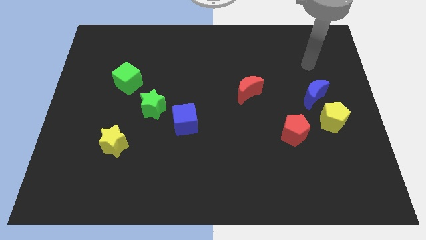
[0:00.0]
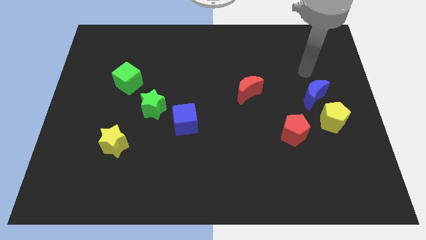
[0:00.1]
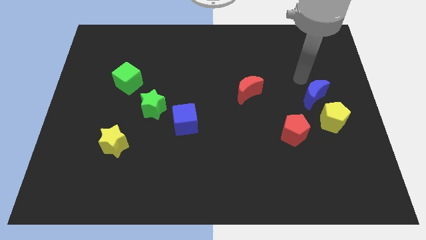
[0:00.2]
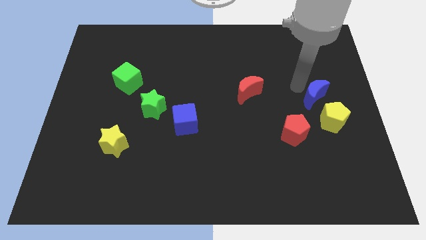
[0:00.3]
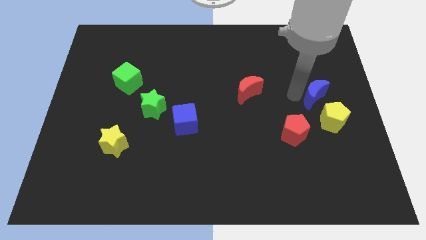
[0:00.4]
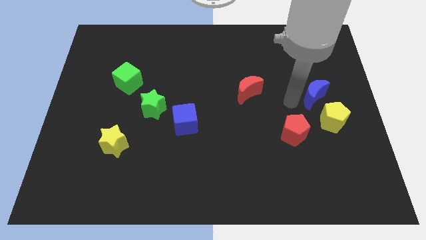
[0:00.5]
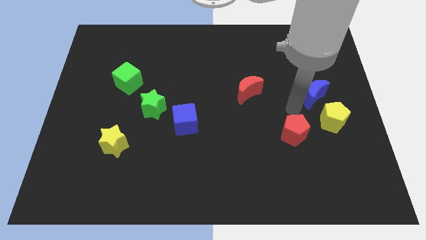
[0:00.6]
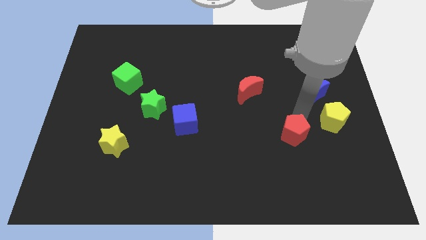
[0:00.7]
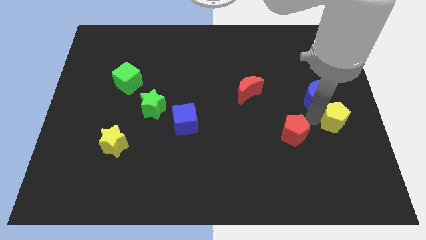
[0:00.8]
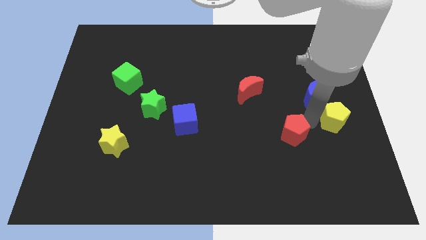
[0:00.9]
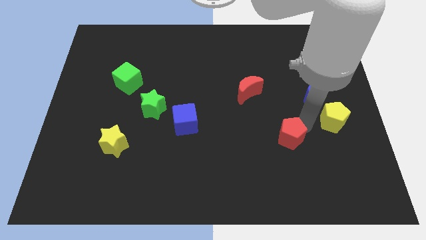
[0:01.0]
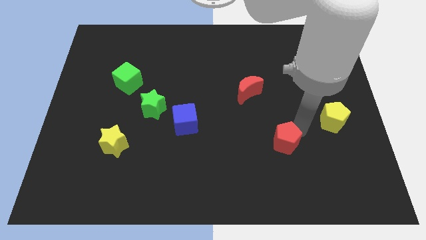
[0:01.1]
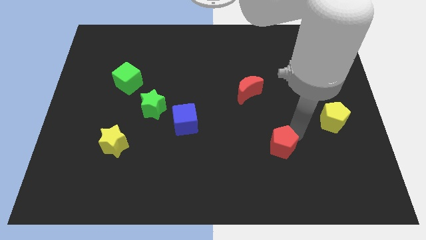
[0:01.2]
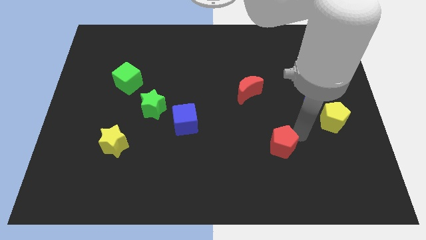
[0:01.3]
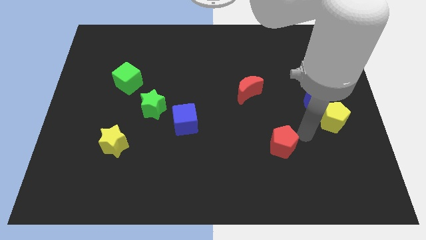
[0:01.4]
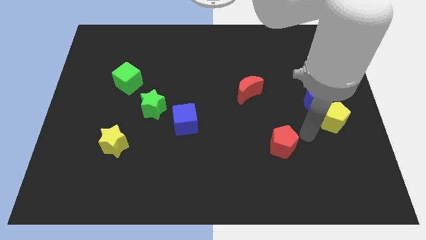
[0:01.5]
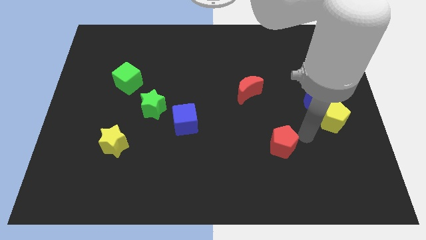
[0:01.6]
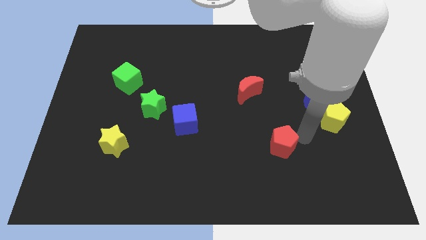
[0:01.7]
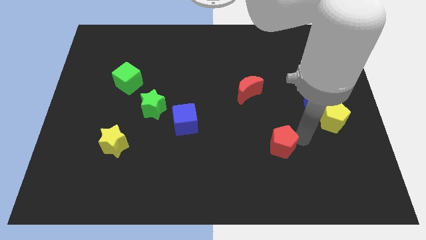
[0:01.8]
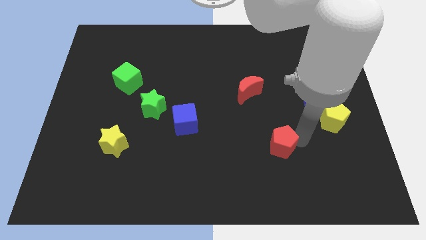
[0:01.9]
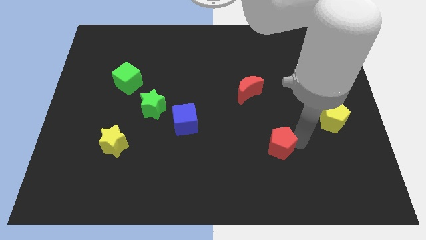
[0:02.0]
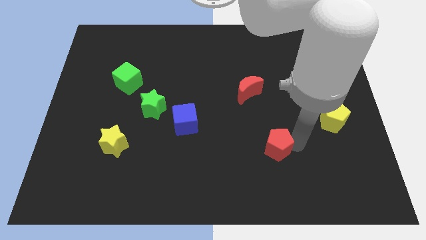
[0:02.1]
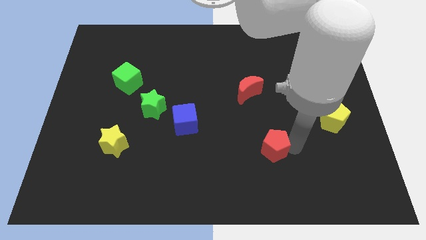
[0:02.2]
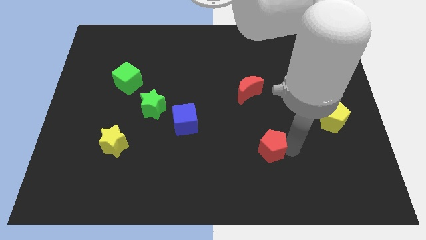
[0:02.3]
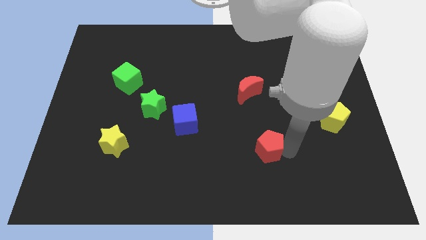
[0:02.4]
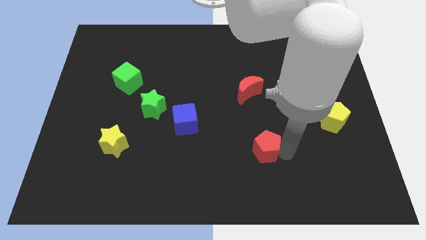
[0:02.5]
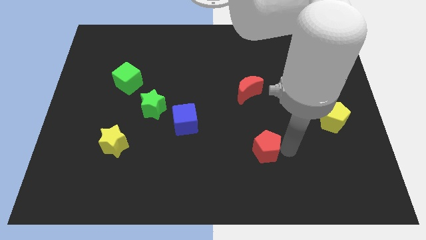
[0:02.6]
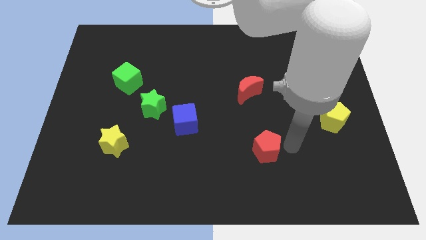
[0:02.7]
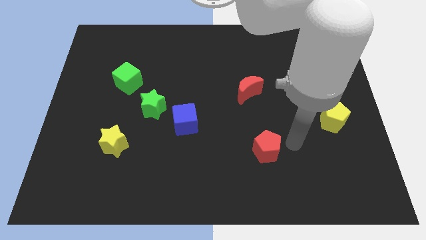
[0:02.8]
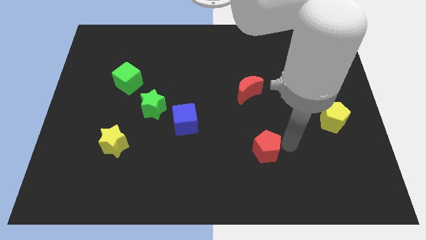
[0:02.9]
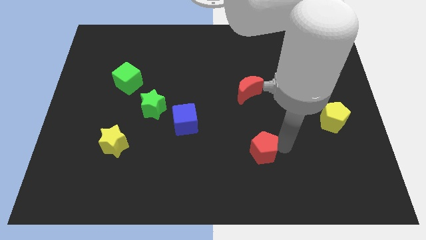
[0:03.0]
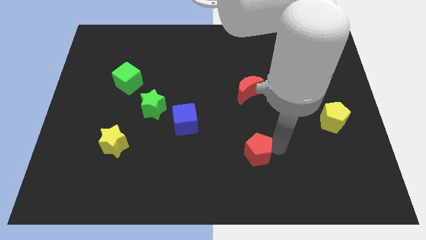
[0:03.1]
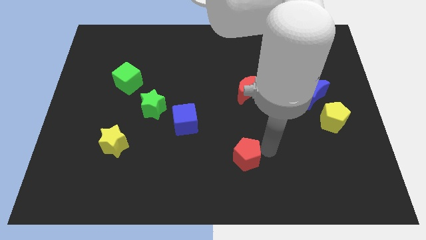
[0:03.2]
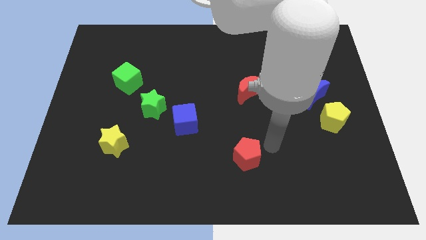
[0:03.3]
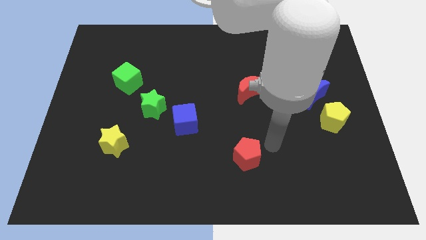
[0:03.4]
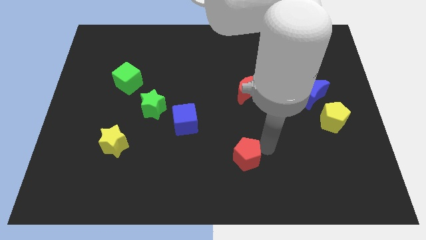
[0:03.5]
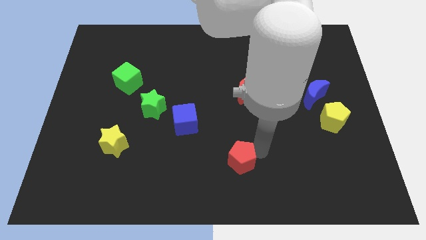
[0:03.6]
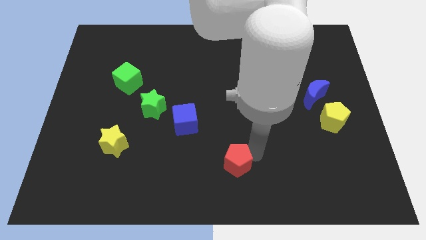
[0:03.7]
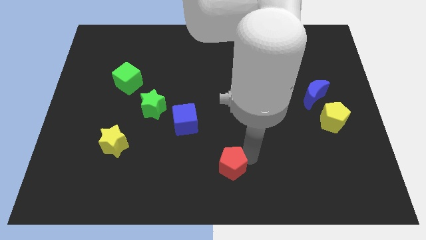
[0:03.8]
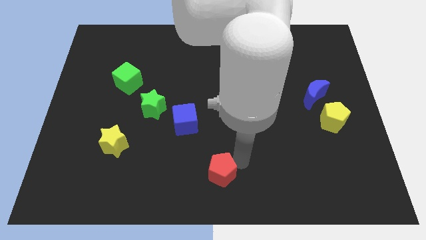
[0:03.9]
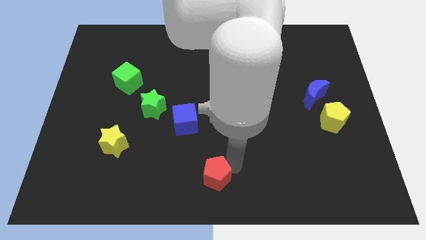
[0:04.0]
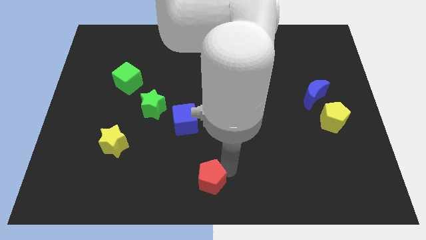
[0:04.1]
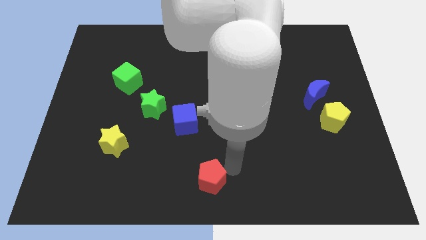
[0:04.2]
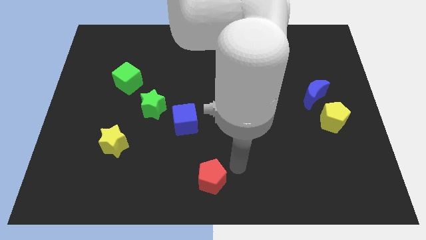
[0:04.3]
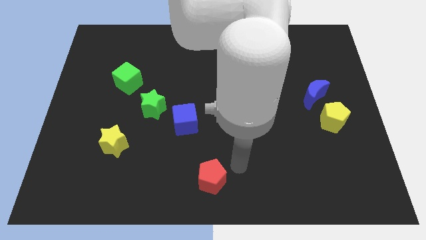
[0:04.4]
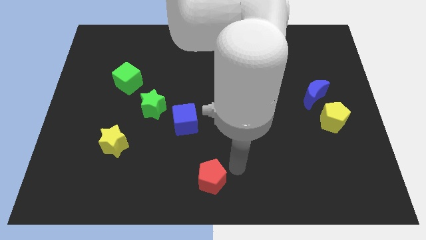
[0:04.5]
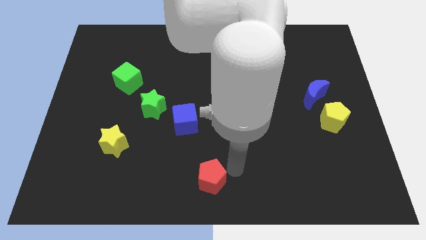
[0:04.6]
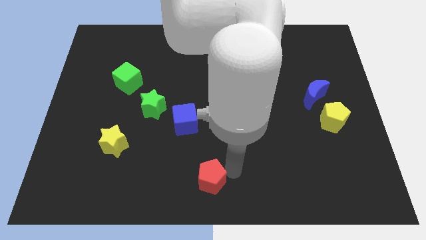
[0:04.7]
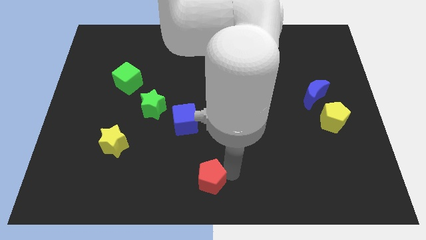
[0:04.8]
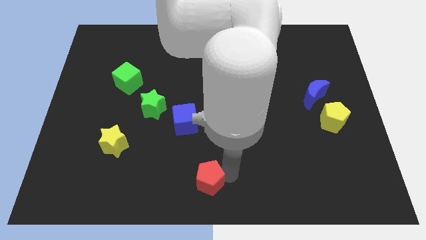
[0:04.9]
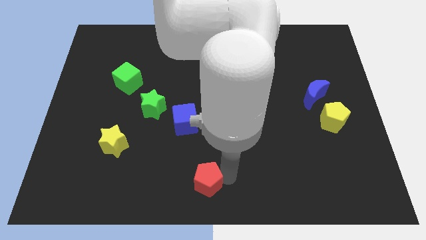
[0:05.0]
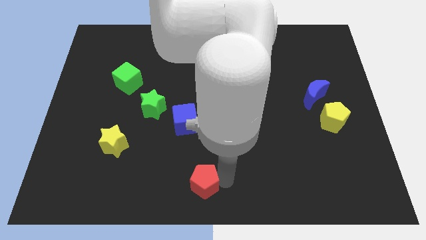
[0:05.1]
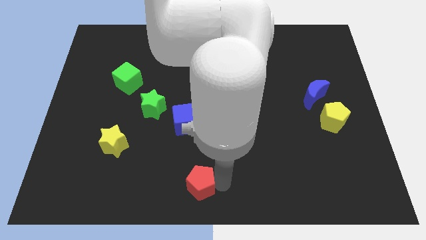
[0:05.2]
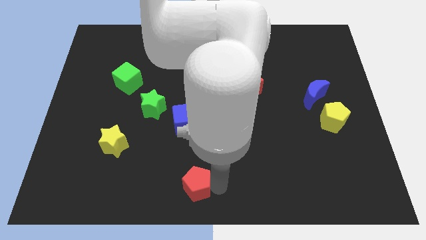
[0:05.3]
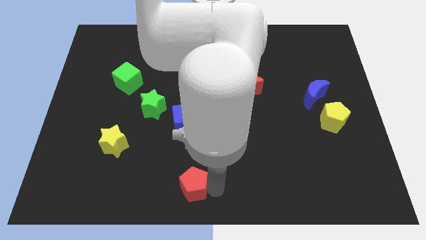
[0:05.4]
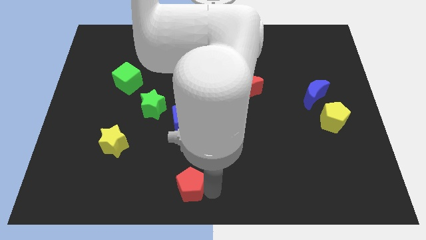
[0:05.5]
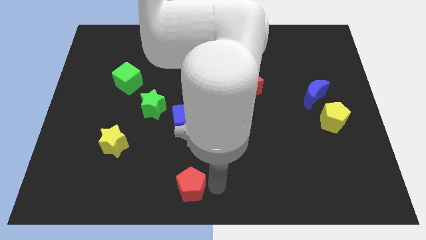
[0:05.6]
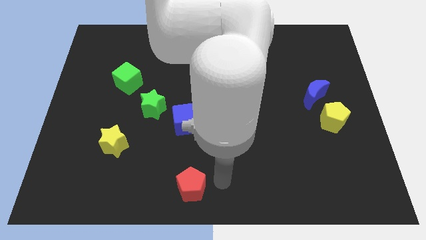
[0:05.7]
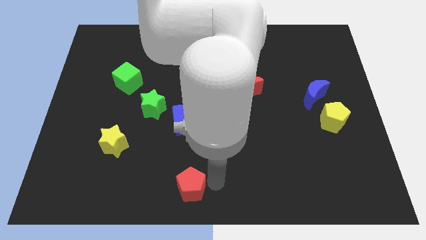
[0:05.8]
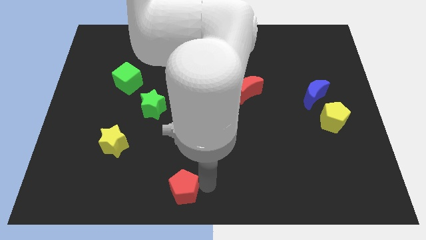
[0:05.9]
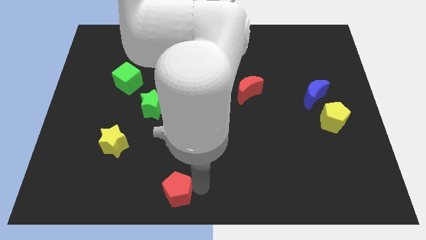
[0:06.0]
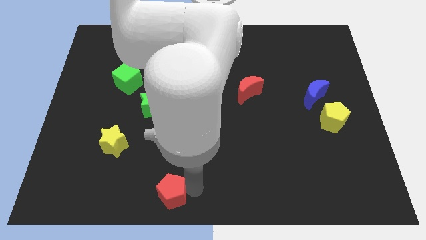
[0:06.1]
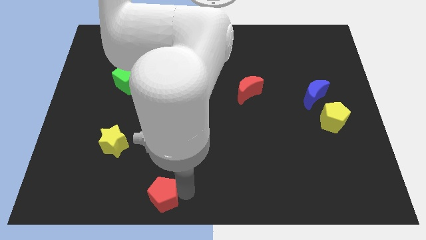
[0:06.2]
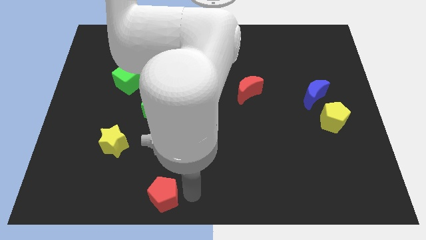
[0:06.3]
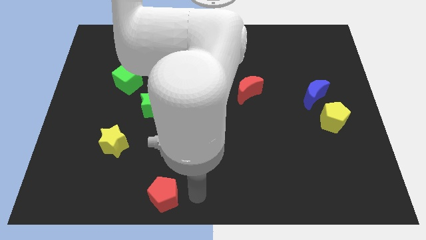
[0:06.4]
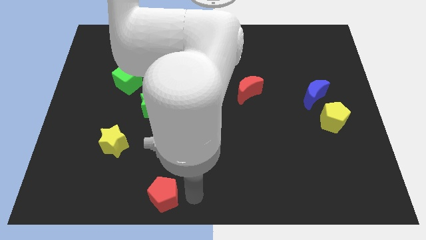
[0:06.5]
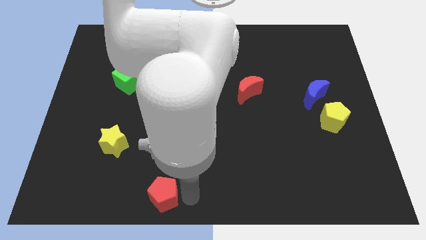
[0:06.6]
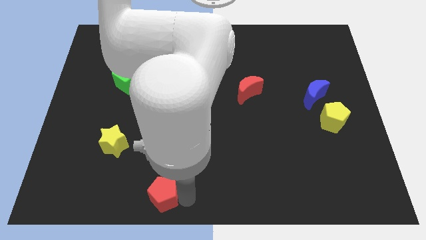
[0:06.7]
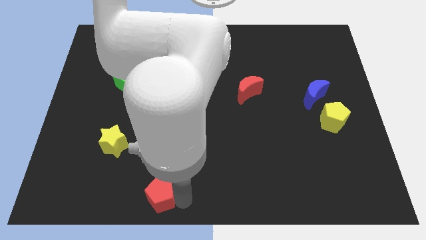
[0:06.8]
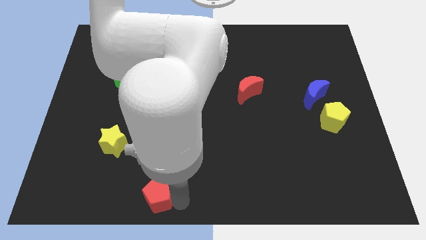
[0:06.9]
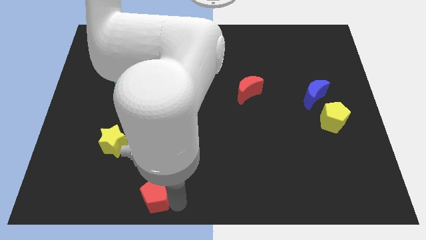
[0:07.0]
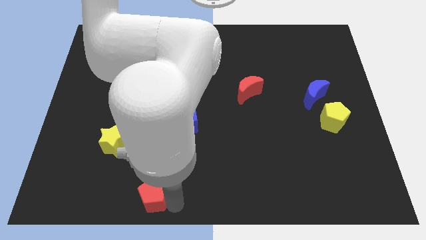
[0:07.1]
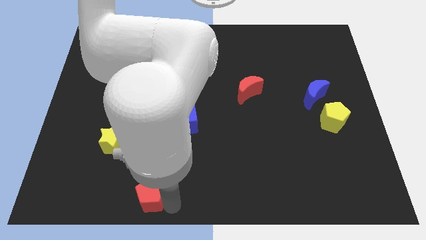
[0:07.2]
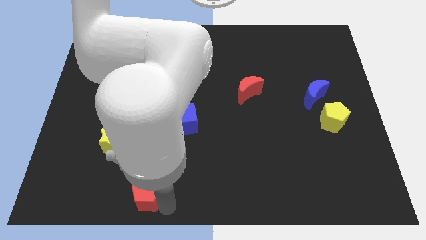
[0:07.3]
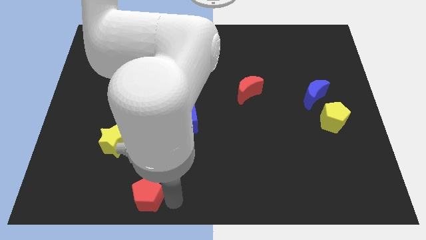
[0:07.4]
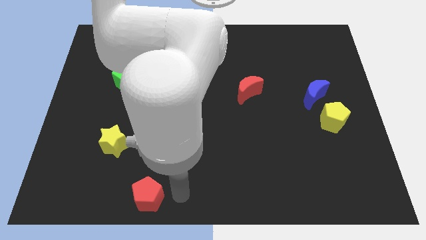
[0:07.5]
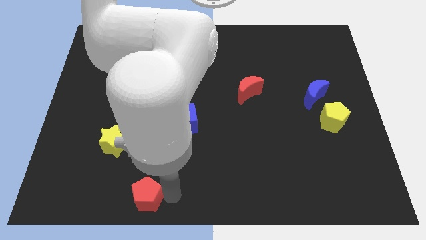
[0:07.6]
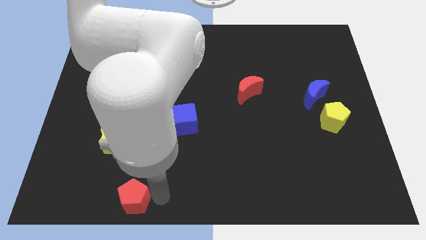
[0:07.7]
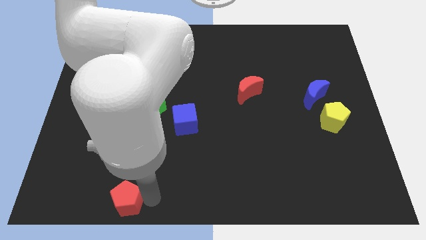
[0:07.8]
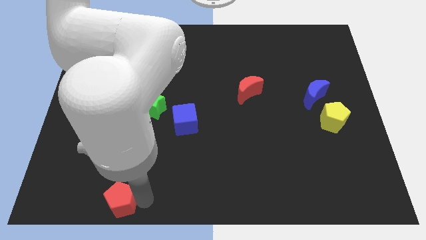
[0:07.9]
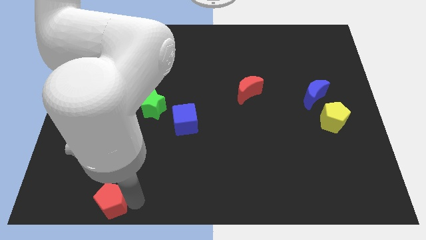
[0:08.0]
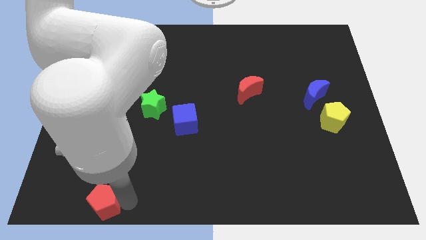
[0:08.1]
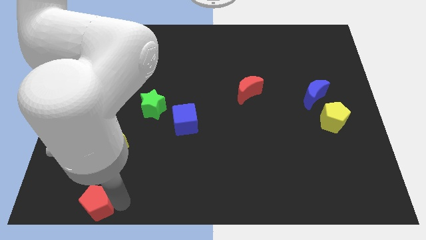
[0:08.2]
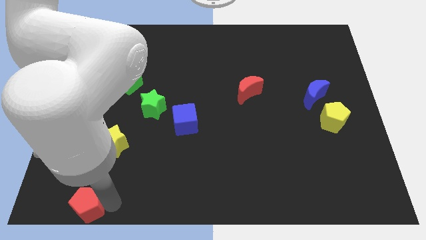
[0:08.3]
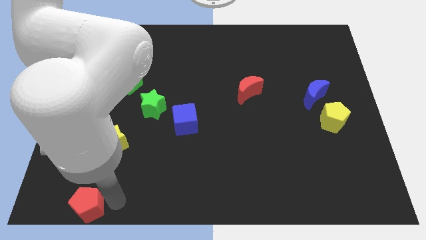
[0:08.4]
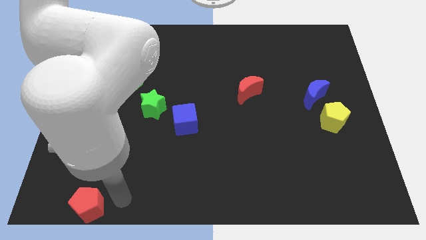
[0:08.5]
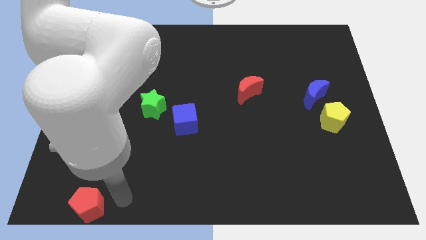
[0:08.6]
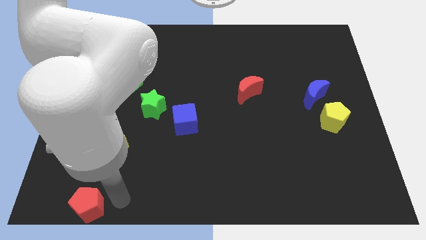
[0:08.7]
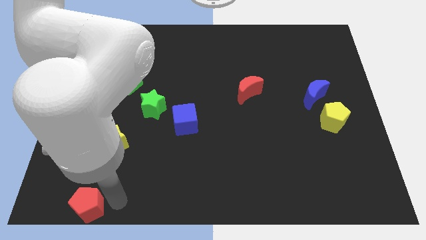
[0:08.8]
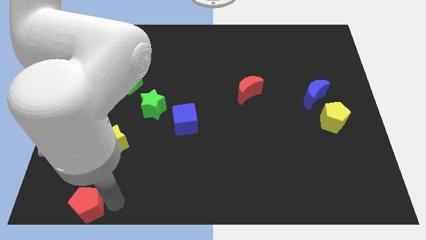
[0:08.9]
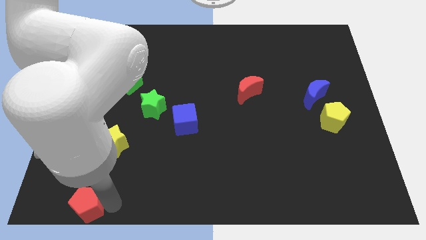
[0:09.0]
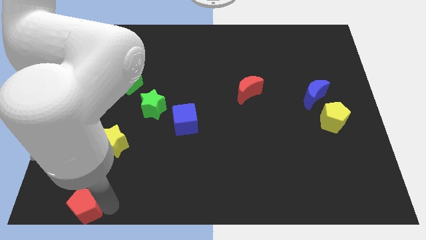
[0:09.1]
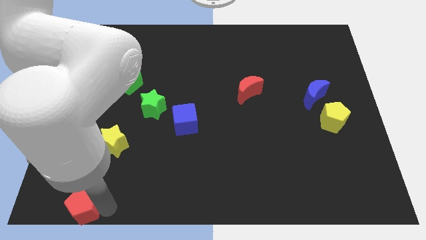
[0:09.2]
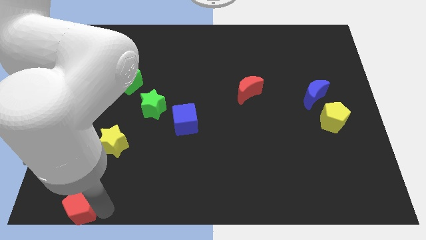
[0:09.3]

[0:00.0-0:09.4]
slide the red pentagon to the lower left corner
